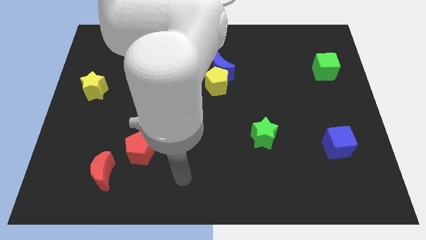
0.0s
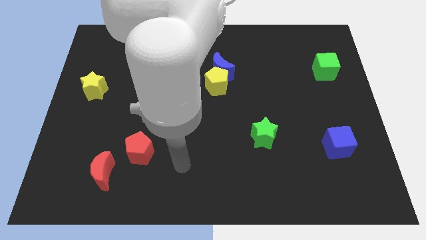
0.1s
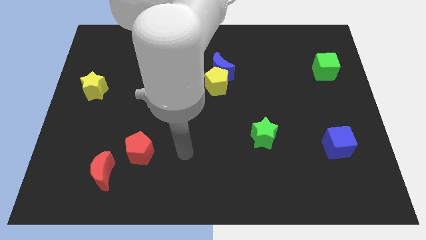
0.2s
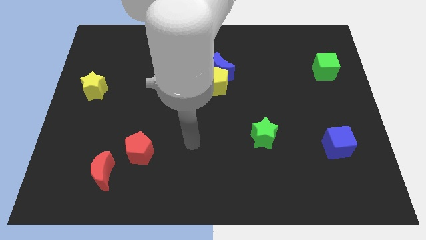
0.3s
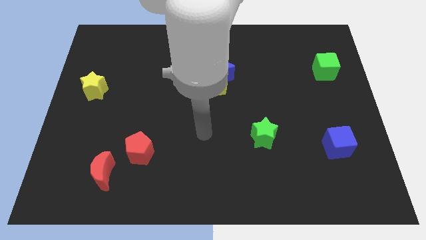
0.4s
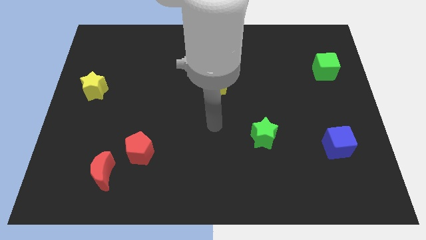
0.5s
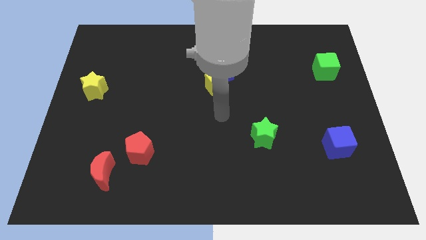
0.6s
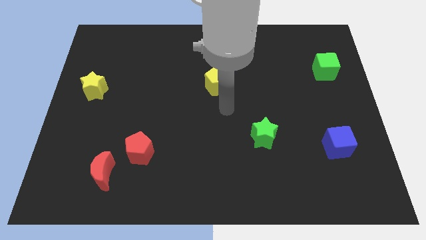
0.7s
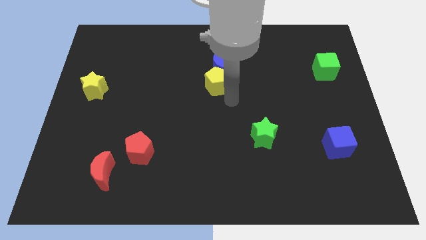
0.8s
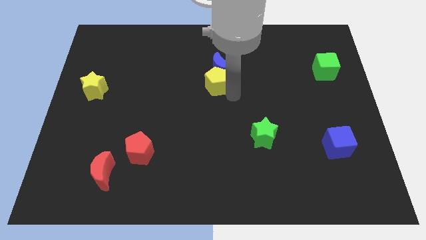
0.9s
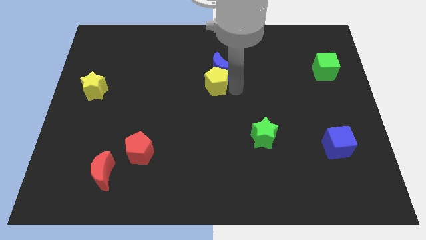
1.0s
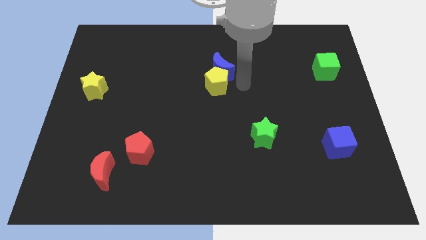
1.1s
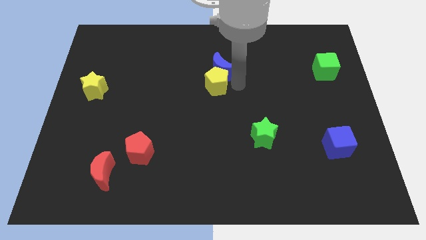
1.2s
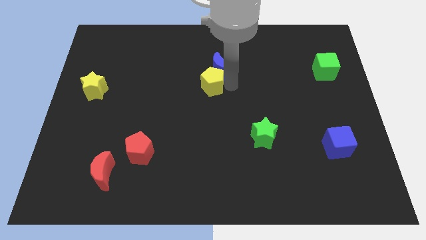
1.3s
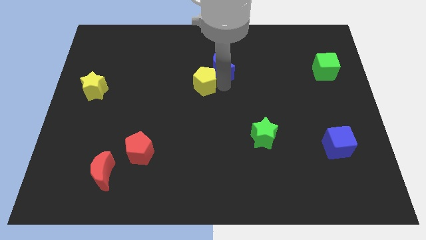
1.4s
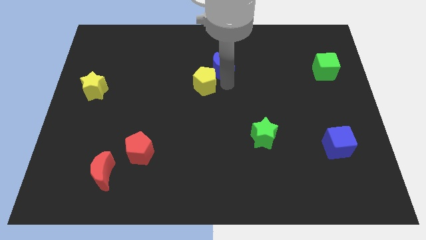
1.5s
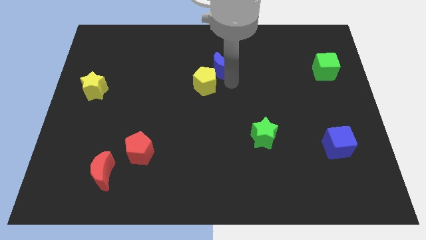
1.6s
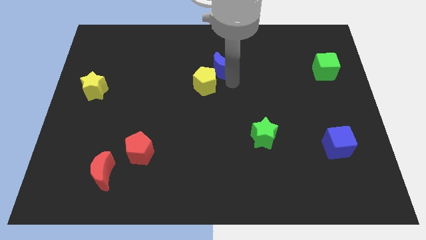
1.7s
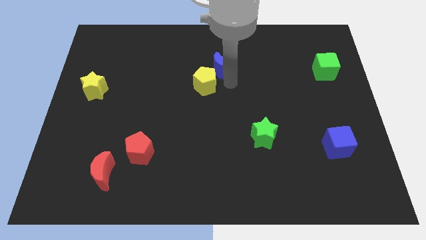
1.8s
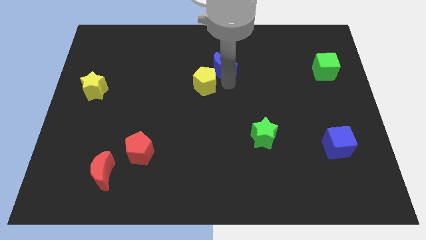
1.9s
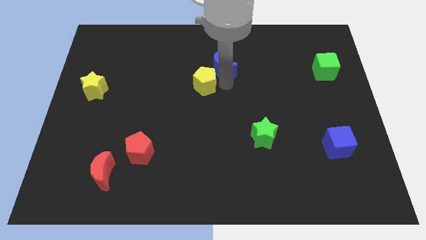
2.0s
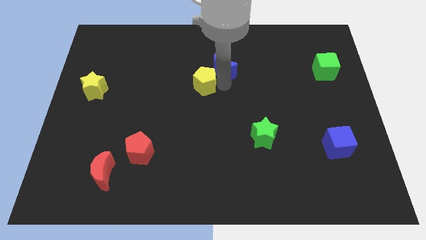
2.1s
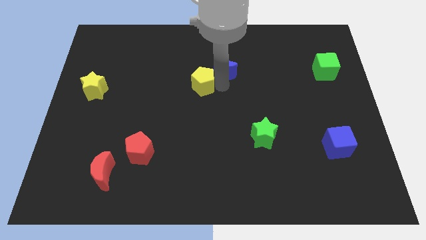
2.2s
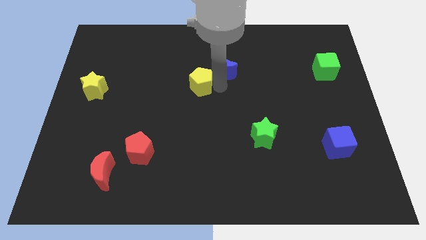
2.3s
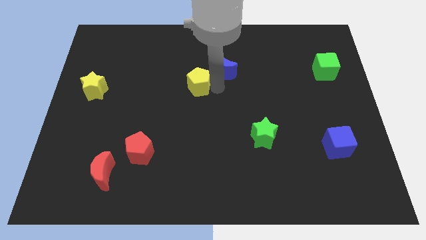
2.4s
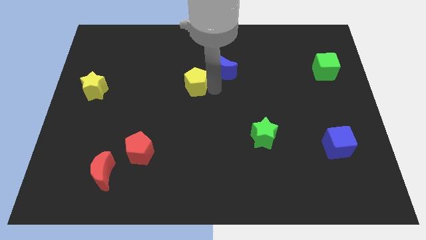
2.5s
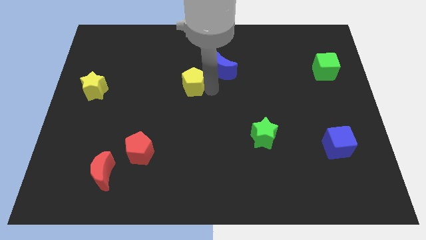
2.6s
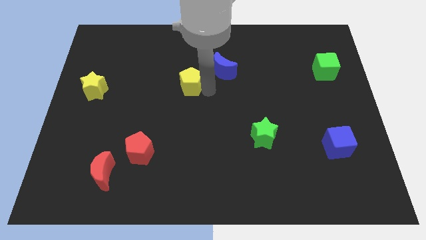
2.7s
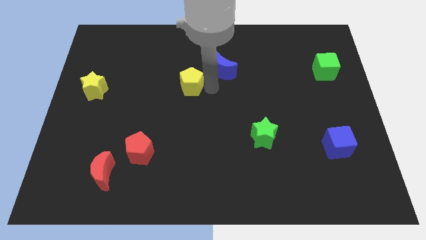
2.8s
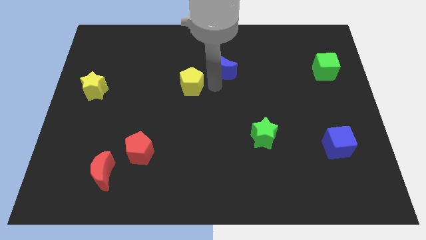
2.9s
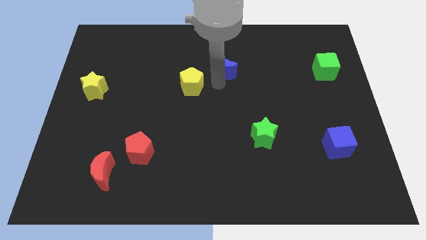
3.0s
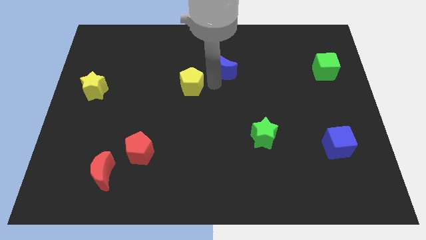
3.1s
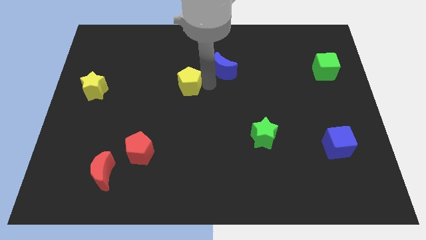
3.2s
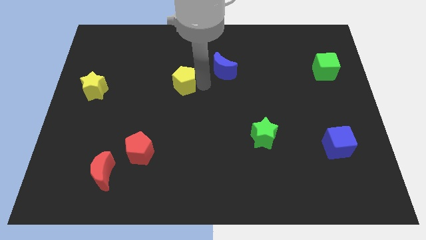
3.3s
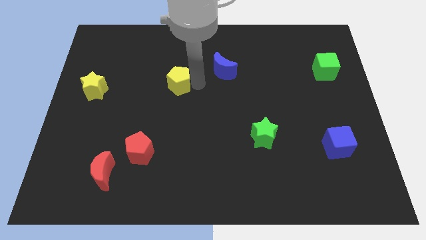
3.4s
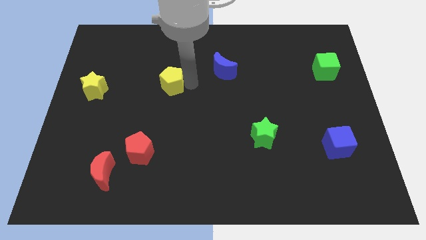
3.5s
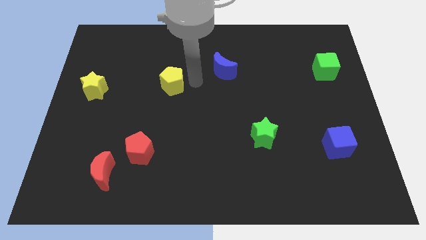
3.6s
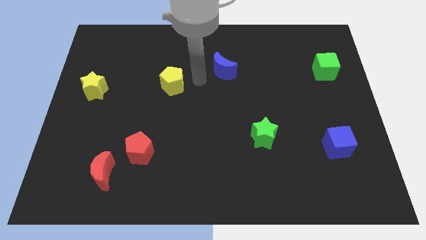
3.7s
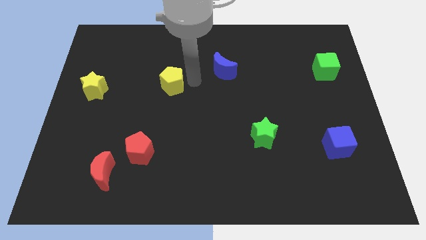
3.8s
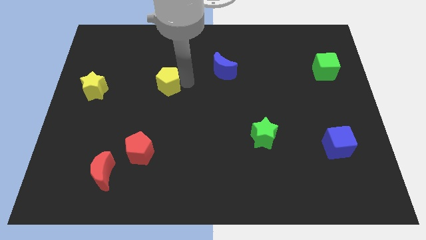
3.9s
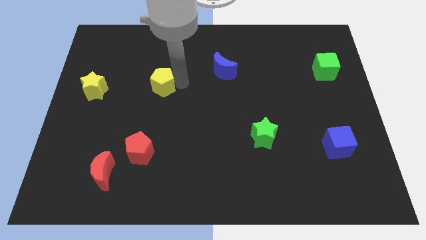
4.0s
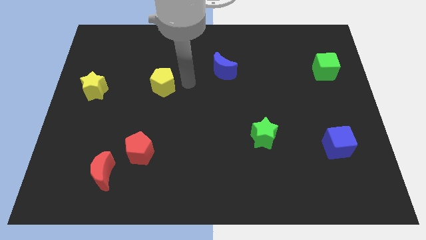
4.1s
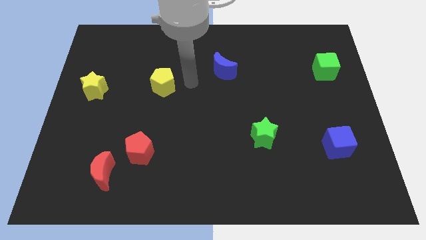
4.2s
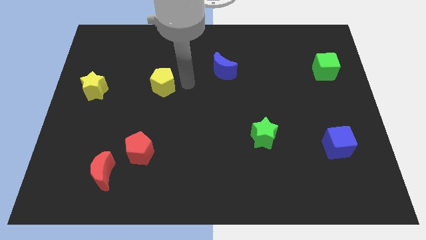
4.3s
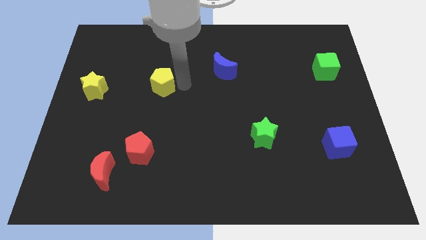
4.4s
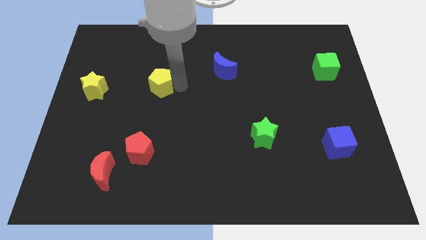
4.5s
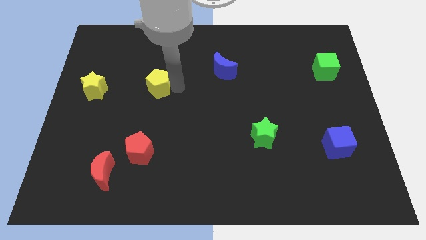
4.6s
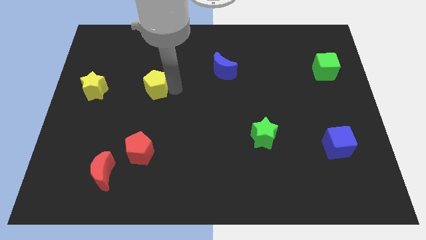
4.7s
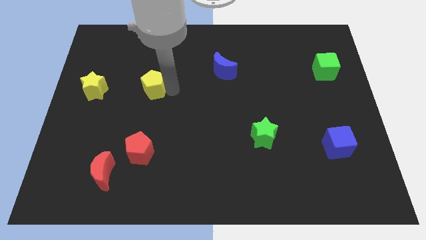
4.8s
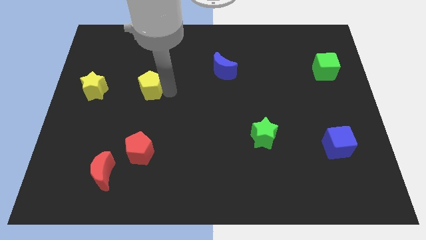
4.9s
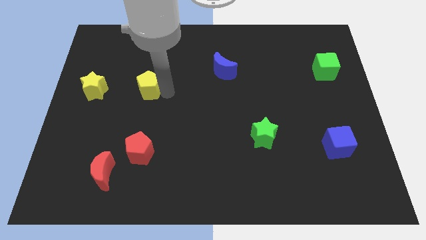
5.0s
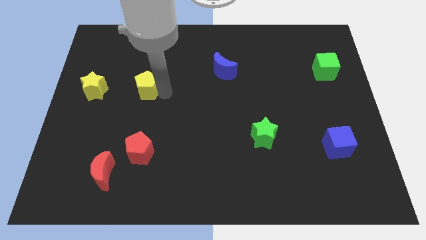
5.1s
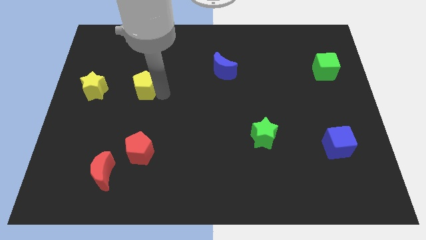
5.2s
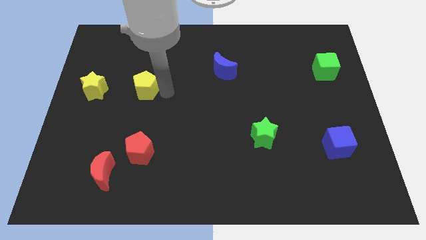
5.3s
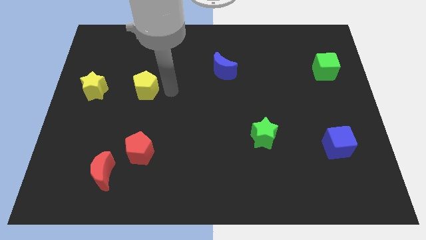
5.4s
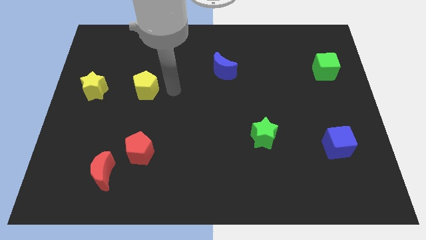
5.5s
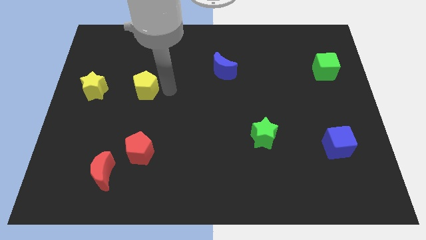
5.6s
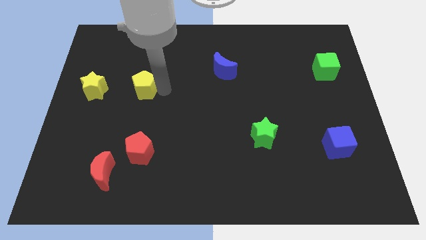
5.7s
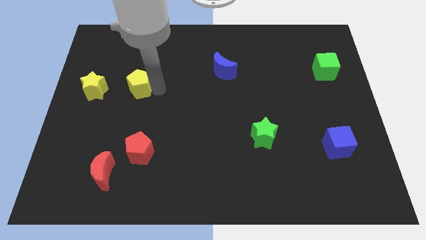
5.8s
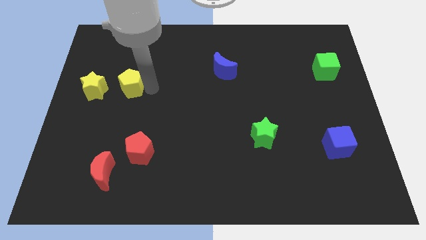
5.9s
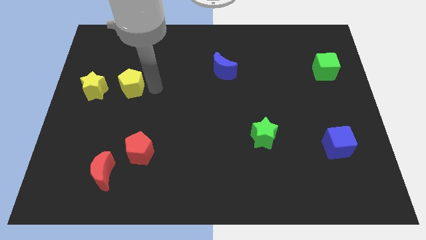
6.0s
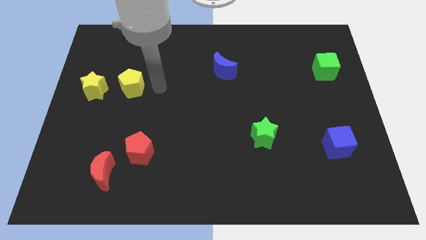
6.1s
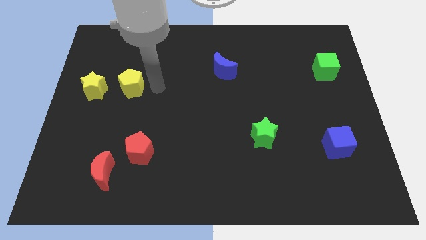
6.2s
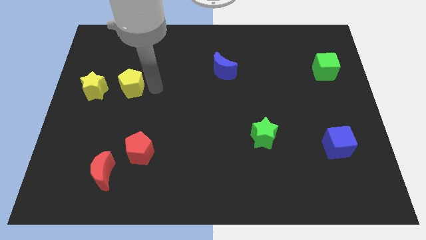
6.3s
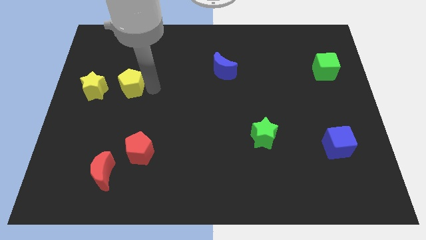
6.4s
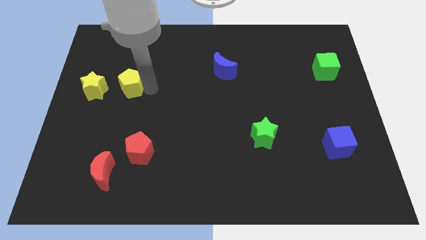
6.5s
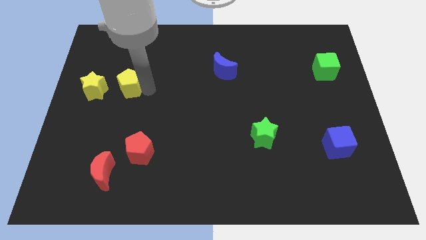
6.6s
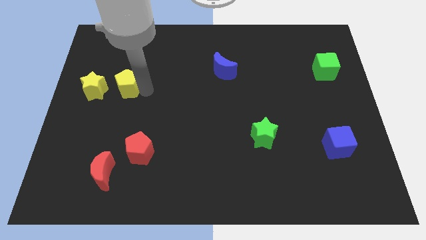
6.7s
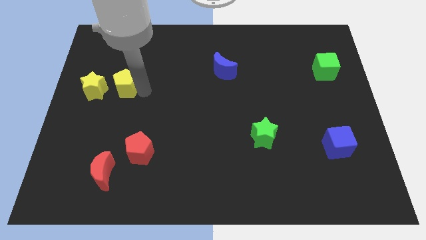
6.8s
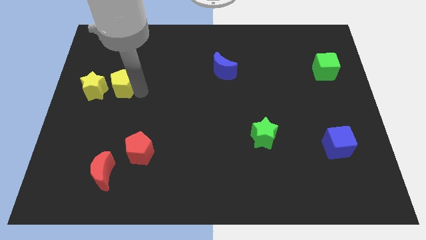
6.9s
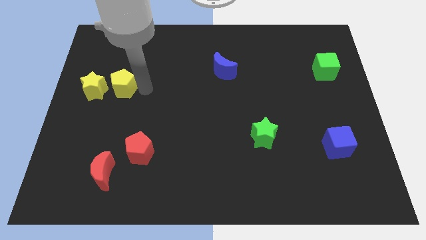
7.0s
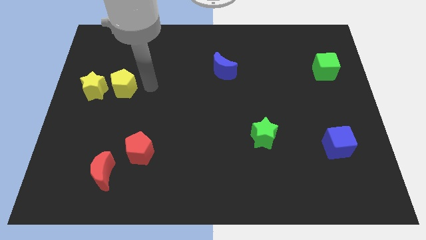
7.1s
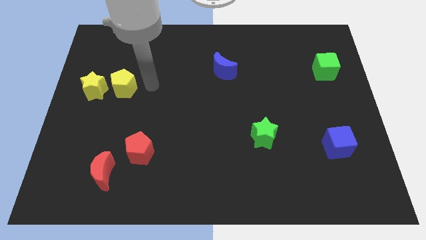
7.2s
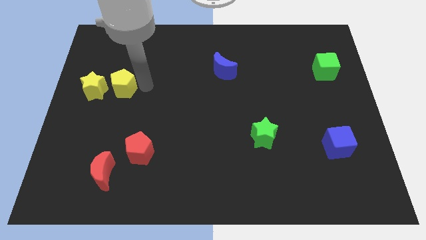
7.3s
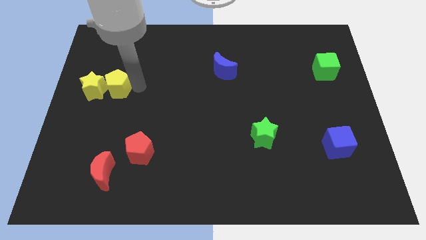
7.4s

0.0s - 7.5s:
slide the yellow pentagon towards the yellow star

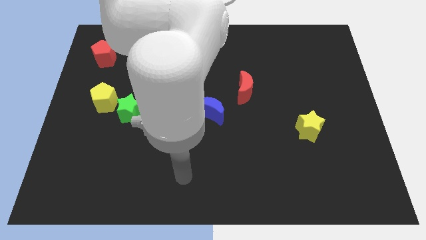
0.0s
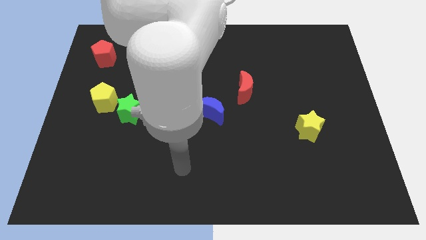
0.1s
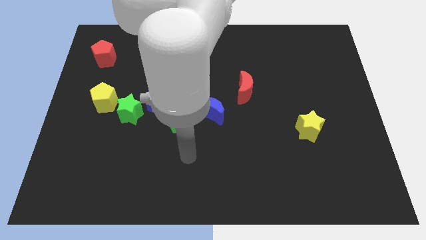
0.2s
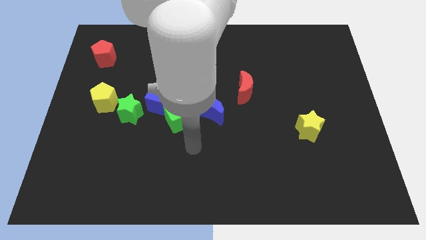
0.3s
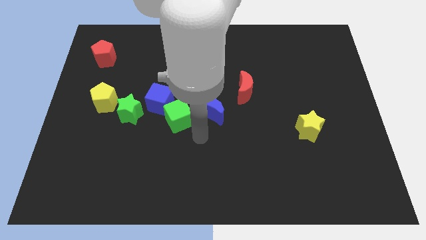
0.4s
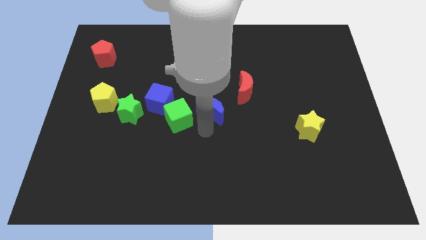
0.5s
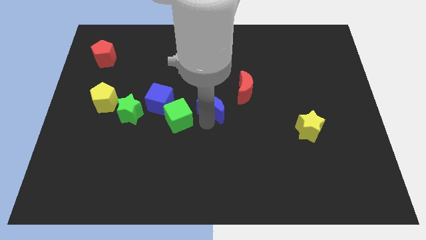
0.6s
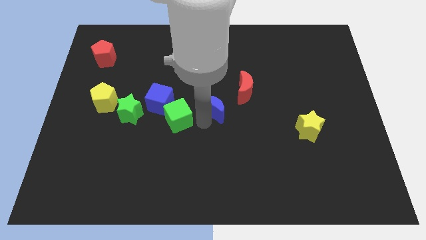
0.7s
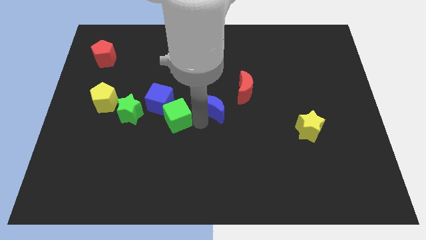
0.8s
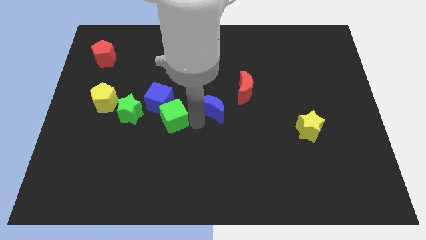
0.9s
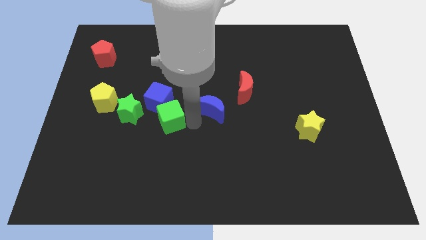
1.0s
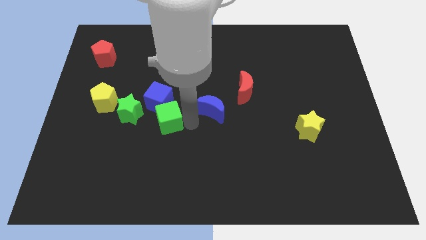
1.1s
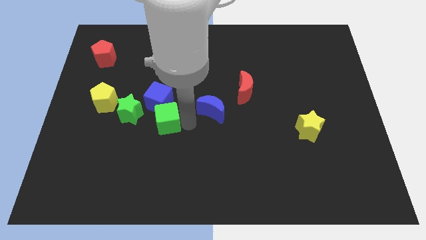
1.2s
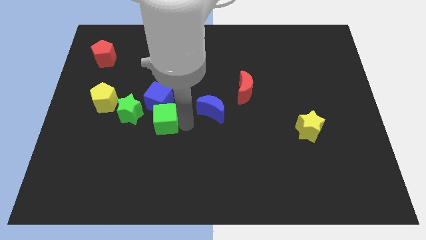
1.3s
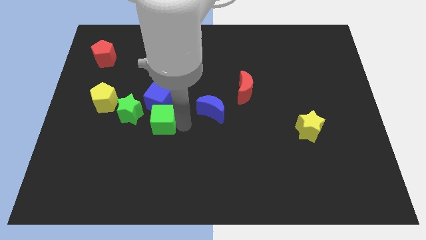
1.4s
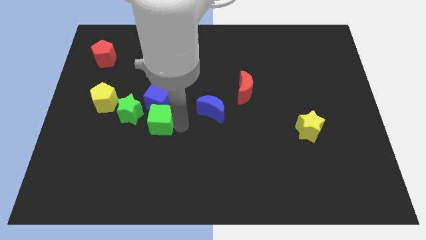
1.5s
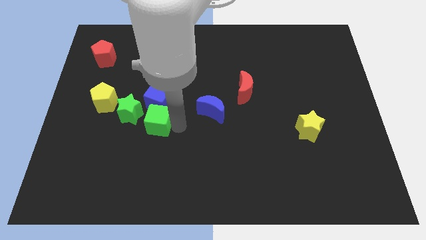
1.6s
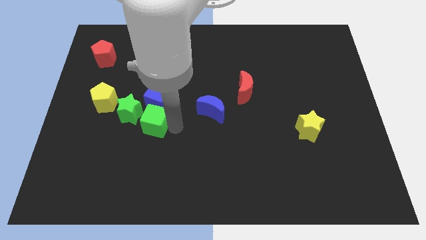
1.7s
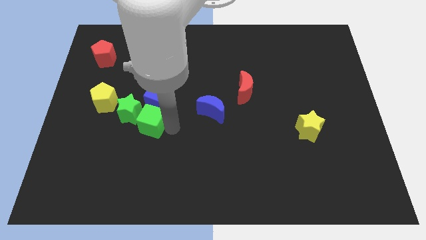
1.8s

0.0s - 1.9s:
move the green cube to the green star
